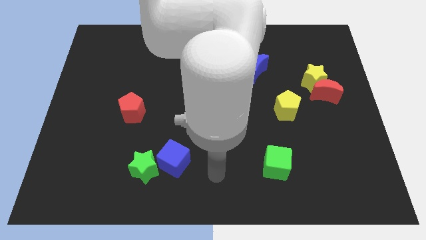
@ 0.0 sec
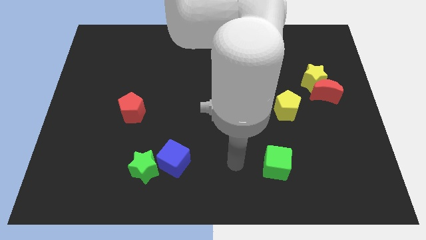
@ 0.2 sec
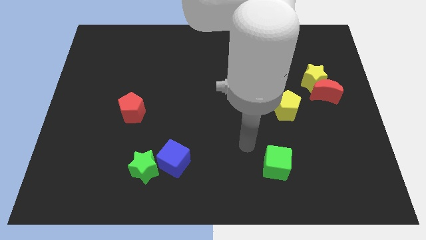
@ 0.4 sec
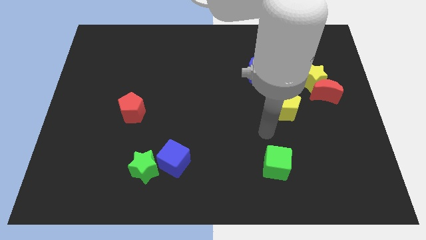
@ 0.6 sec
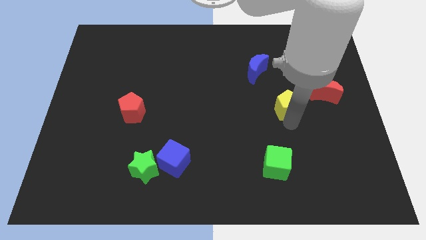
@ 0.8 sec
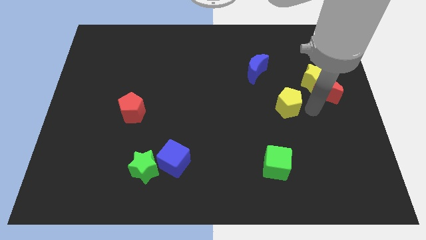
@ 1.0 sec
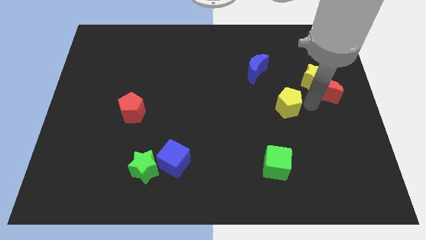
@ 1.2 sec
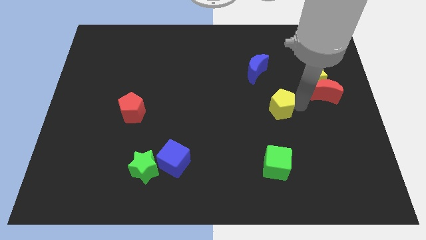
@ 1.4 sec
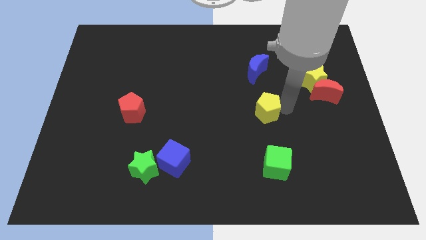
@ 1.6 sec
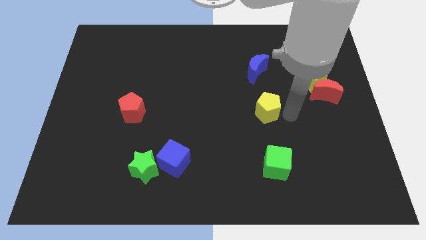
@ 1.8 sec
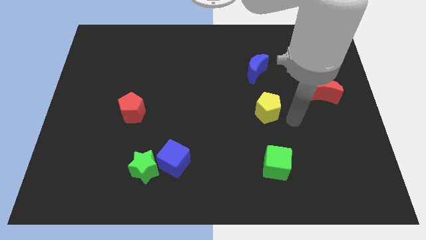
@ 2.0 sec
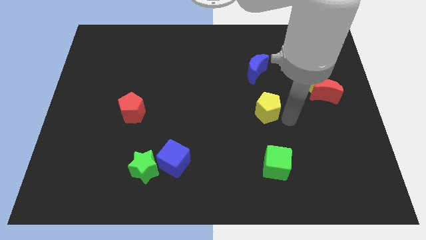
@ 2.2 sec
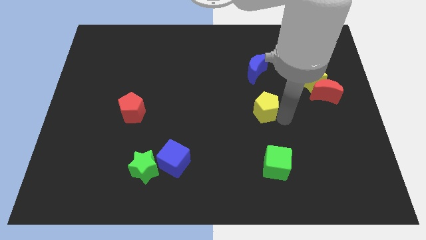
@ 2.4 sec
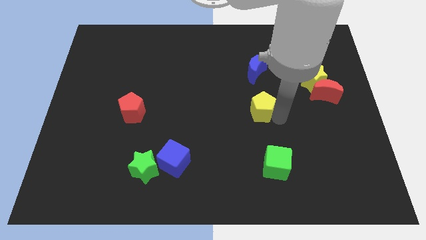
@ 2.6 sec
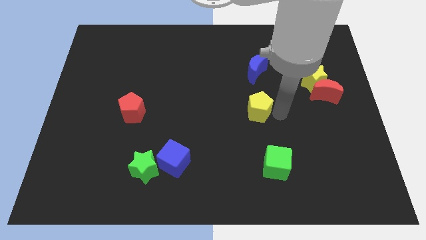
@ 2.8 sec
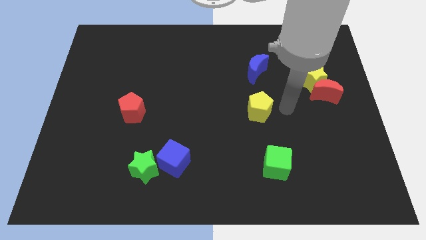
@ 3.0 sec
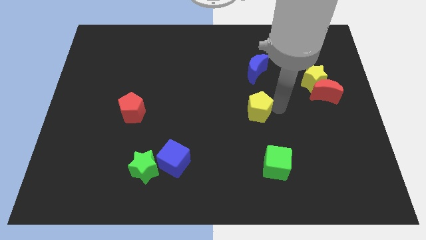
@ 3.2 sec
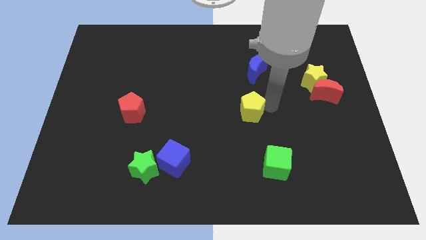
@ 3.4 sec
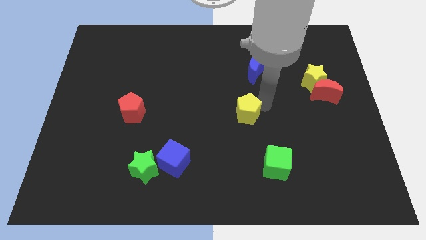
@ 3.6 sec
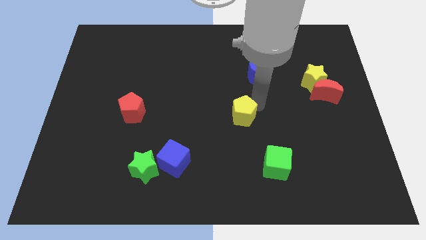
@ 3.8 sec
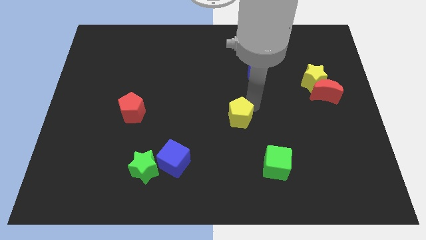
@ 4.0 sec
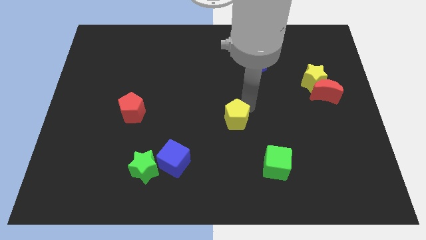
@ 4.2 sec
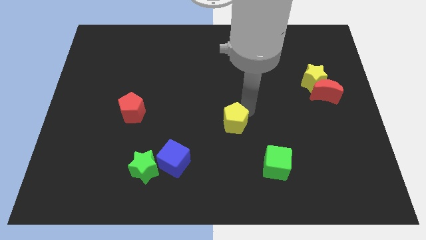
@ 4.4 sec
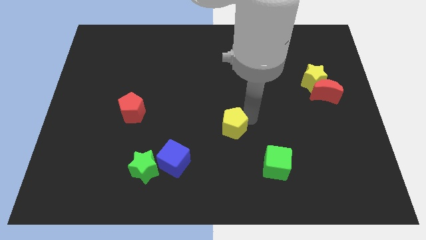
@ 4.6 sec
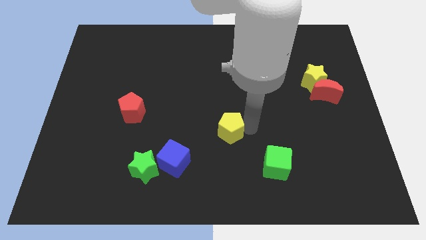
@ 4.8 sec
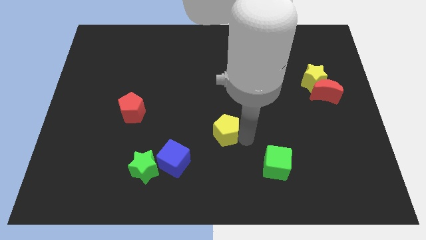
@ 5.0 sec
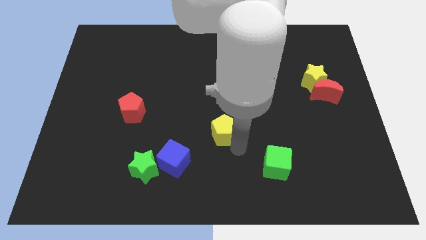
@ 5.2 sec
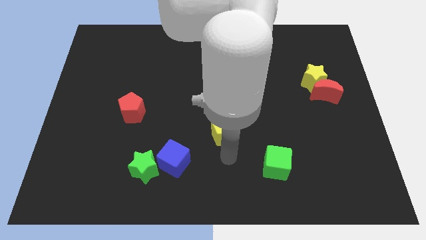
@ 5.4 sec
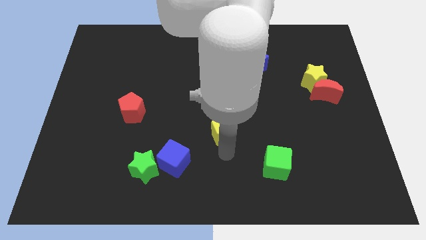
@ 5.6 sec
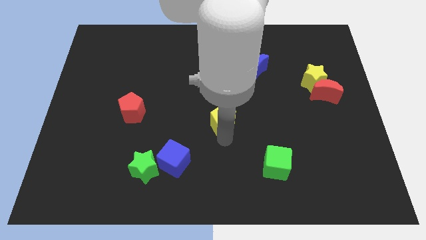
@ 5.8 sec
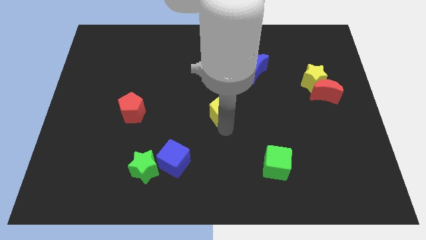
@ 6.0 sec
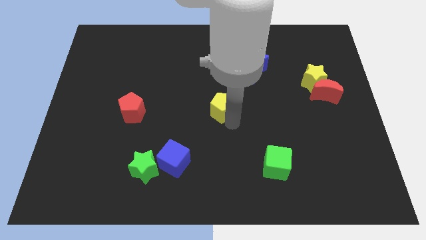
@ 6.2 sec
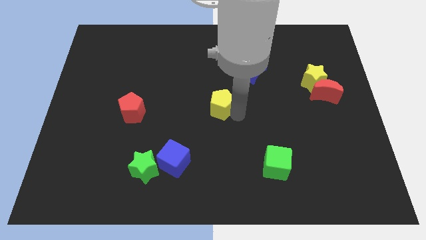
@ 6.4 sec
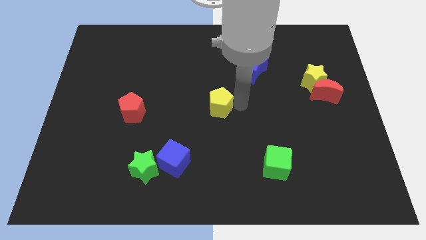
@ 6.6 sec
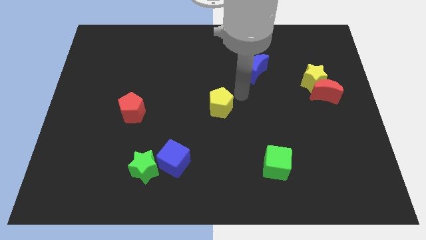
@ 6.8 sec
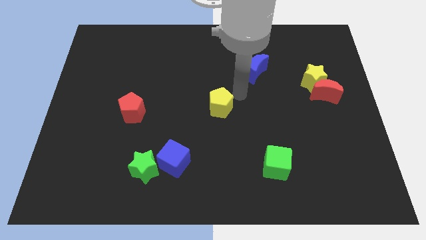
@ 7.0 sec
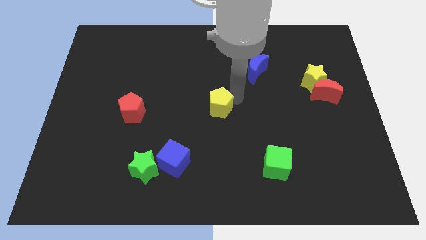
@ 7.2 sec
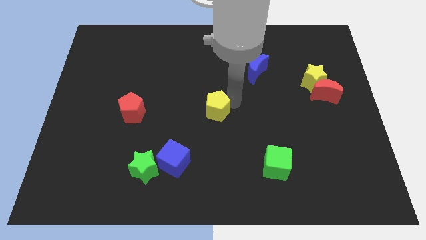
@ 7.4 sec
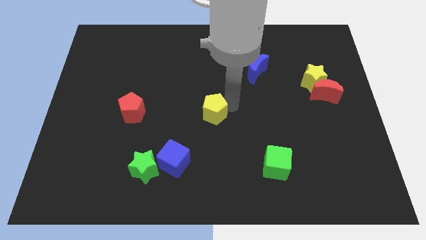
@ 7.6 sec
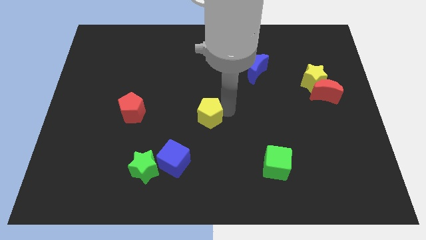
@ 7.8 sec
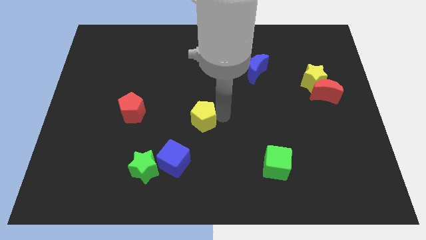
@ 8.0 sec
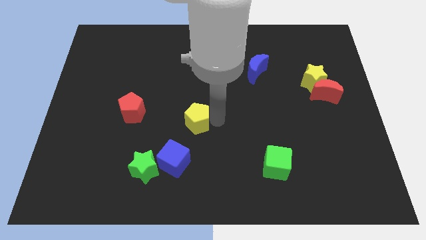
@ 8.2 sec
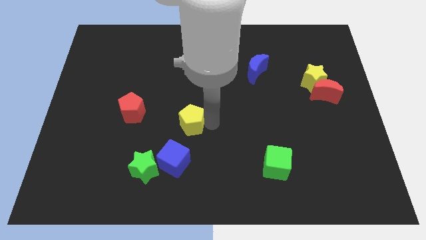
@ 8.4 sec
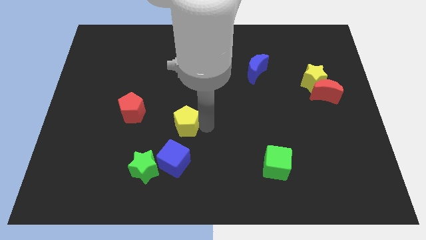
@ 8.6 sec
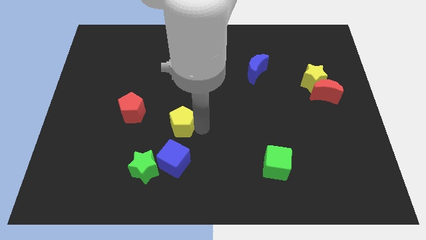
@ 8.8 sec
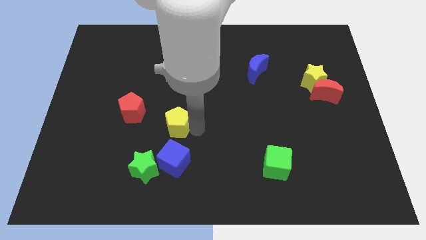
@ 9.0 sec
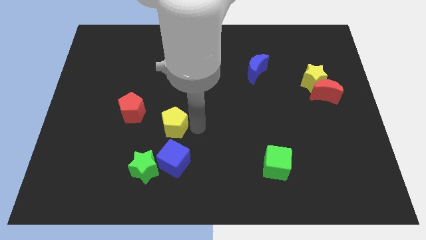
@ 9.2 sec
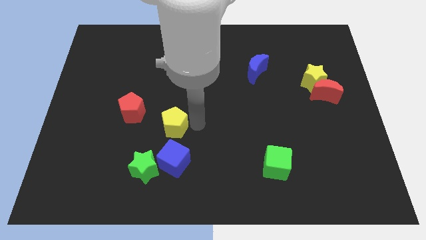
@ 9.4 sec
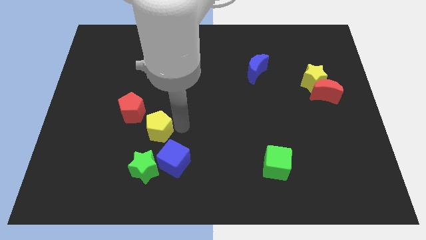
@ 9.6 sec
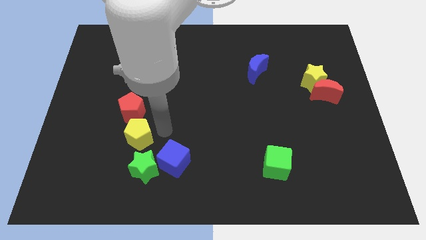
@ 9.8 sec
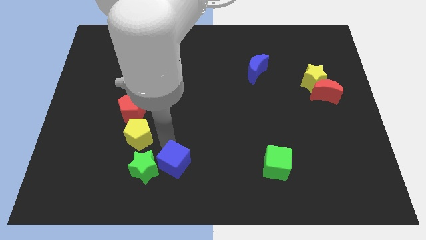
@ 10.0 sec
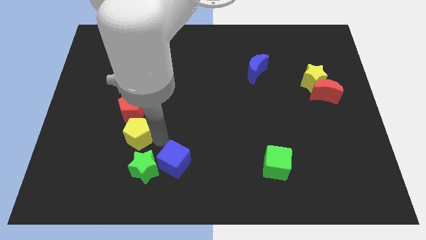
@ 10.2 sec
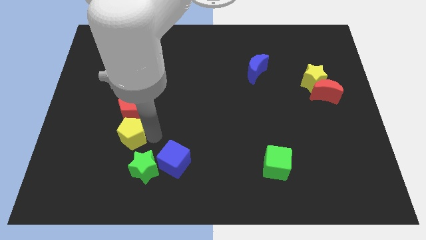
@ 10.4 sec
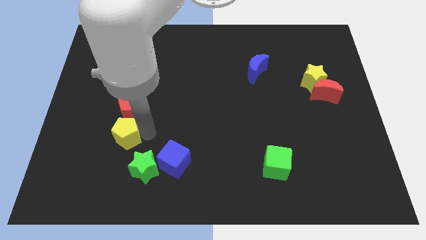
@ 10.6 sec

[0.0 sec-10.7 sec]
put the yellow pentagon diagonally down and to the left of the red pentagon

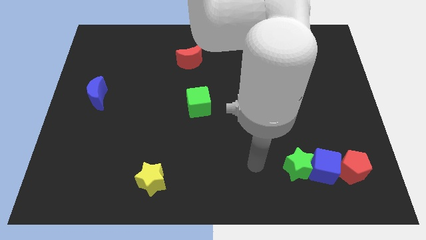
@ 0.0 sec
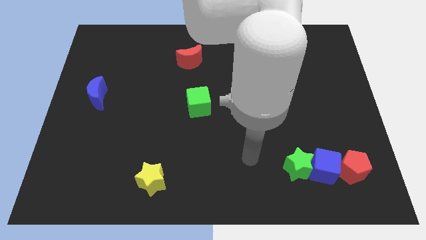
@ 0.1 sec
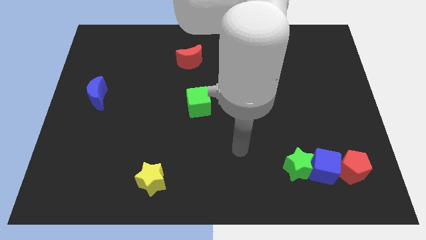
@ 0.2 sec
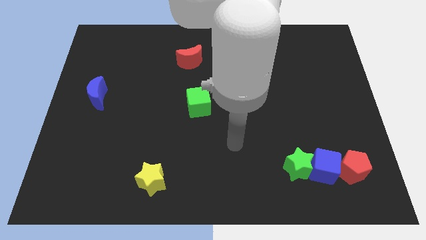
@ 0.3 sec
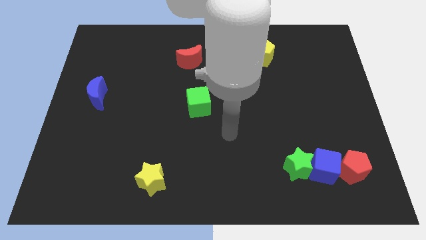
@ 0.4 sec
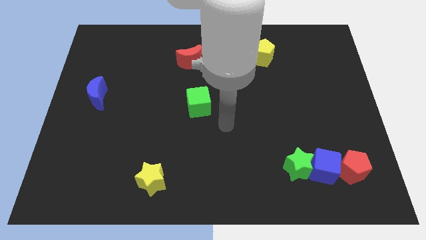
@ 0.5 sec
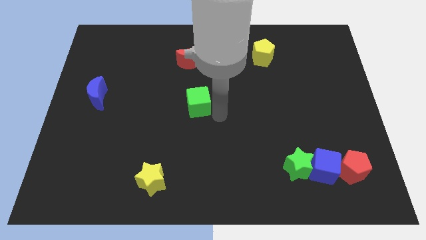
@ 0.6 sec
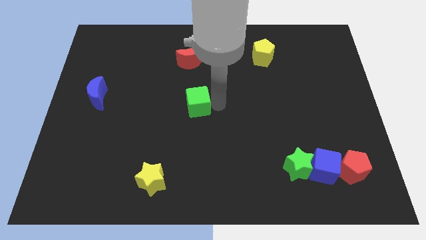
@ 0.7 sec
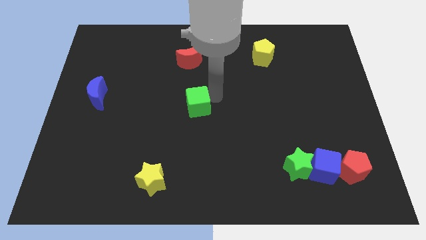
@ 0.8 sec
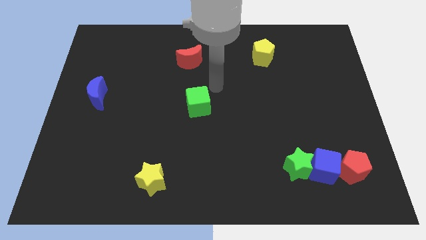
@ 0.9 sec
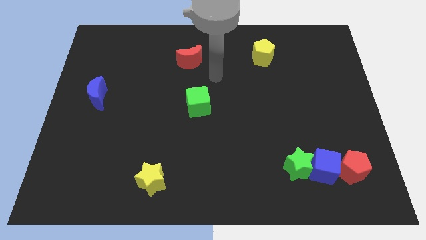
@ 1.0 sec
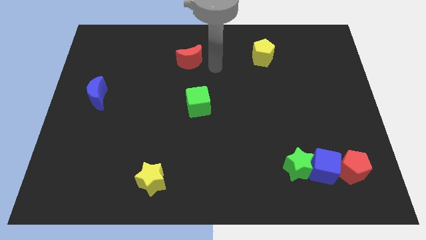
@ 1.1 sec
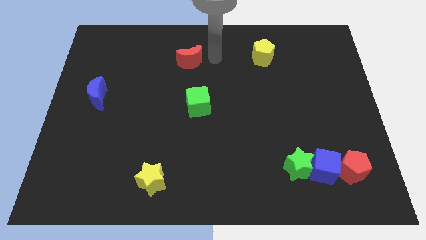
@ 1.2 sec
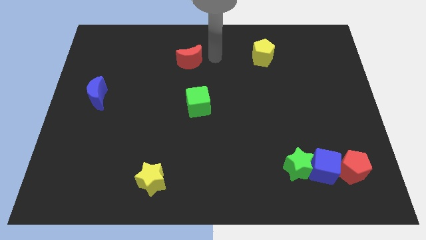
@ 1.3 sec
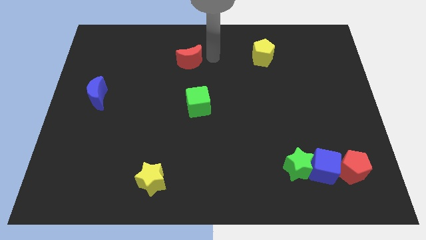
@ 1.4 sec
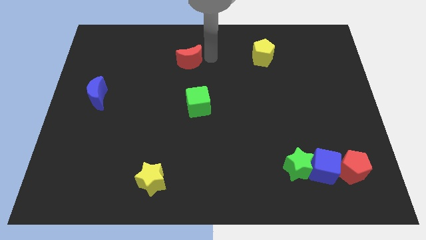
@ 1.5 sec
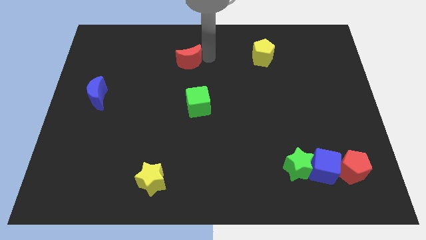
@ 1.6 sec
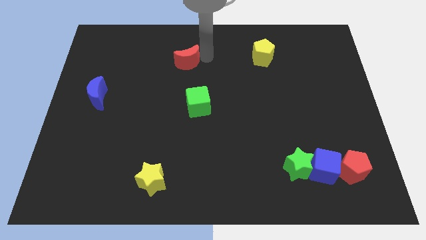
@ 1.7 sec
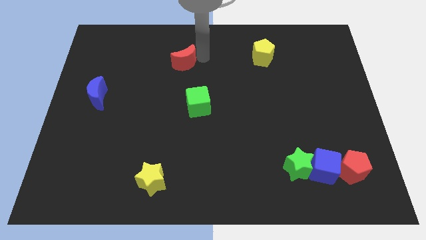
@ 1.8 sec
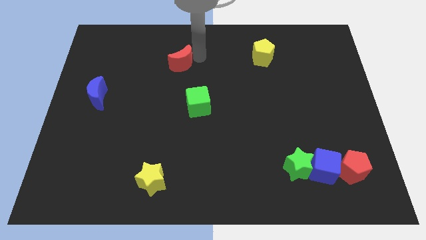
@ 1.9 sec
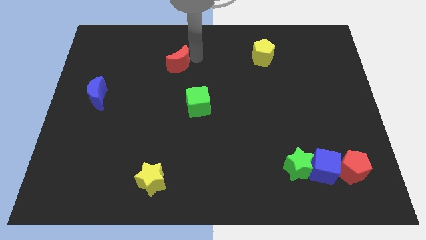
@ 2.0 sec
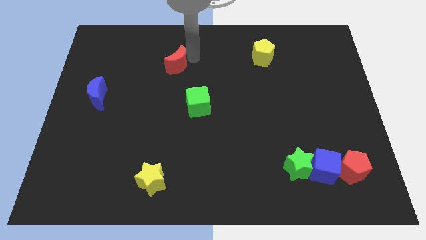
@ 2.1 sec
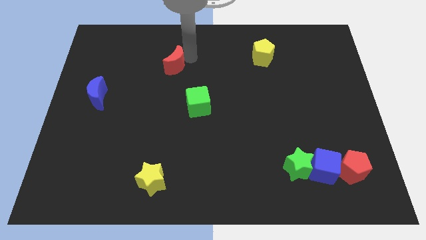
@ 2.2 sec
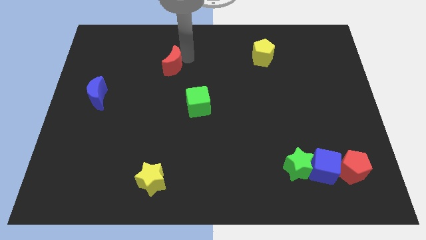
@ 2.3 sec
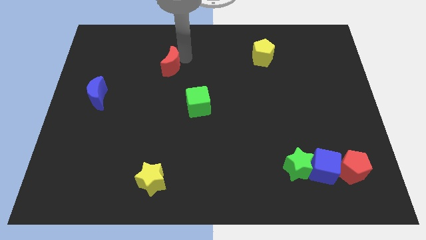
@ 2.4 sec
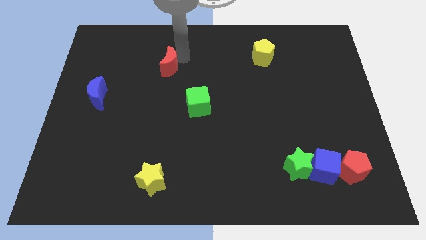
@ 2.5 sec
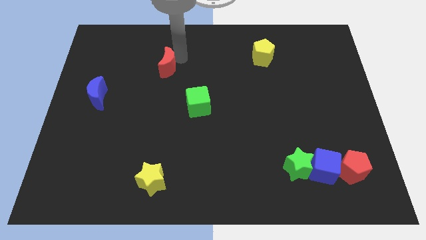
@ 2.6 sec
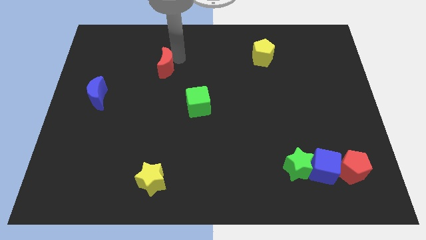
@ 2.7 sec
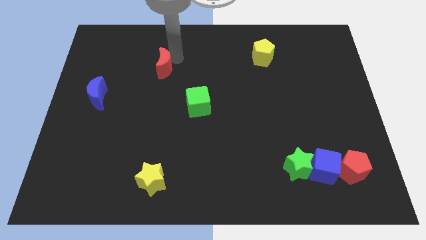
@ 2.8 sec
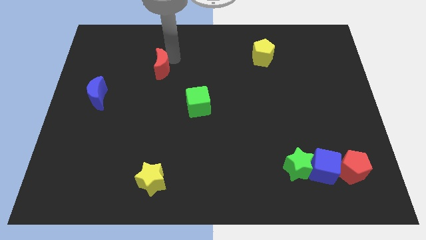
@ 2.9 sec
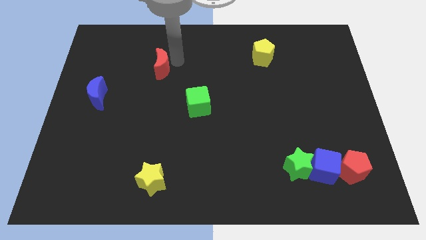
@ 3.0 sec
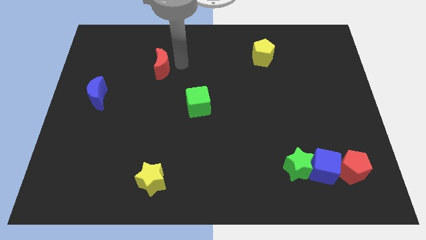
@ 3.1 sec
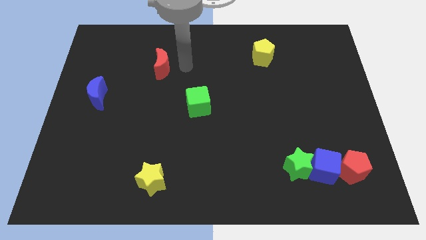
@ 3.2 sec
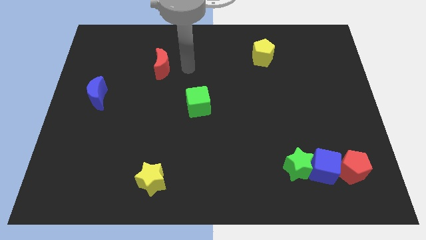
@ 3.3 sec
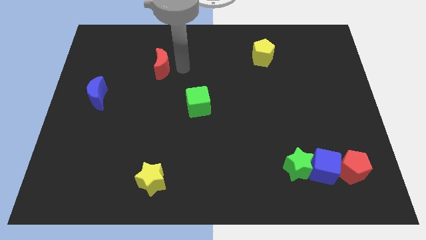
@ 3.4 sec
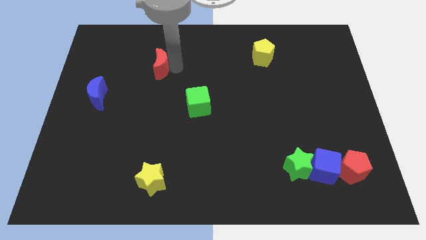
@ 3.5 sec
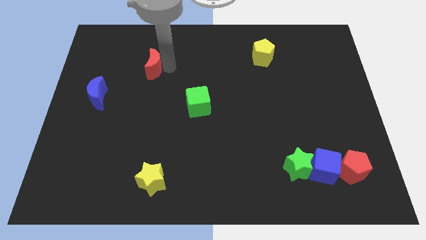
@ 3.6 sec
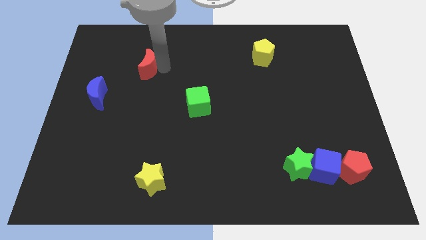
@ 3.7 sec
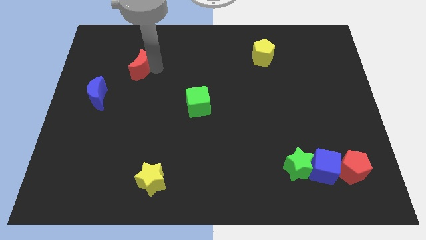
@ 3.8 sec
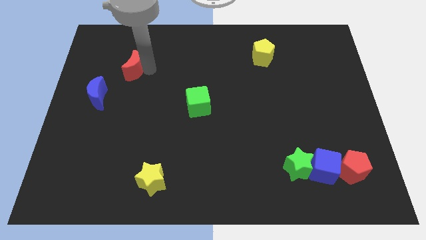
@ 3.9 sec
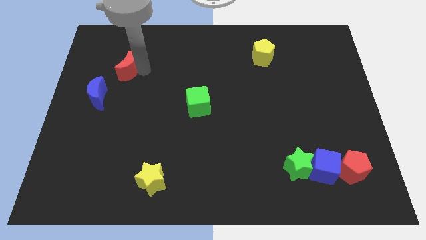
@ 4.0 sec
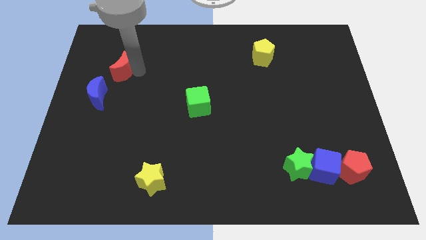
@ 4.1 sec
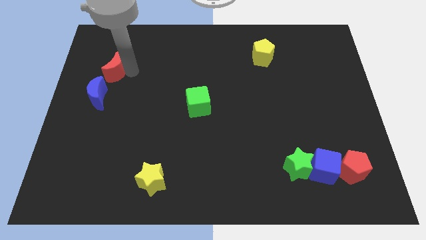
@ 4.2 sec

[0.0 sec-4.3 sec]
put the red moon to the top of the blue moon
